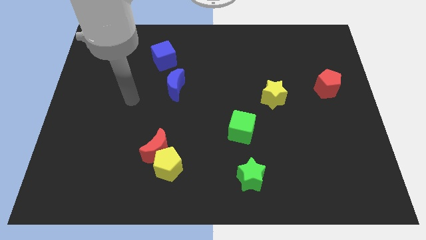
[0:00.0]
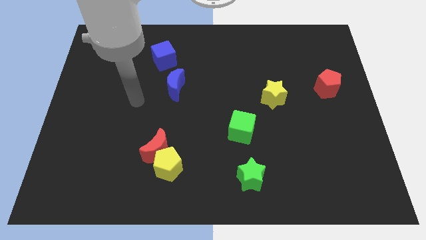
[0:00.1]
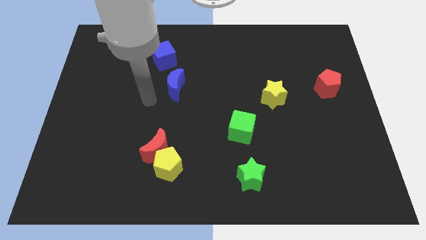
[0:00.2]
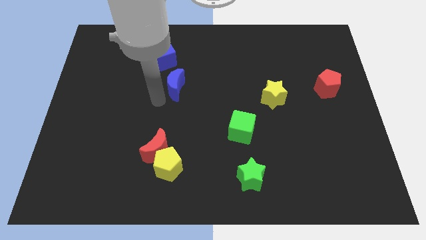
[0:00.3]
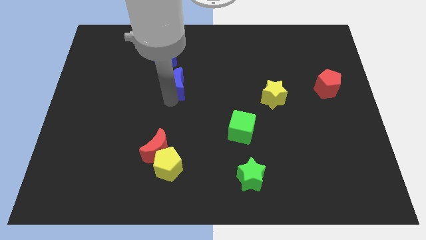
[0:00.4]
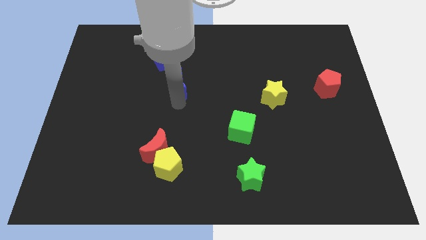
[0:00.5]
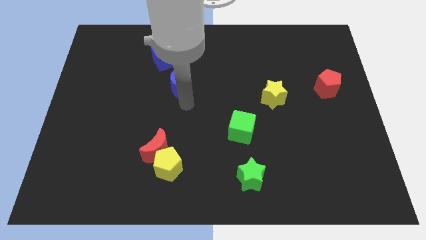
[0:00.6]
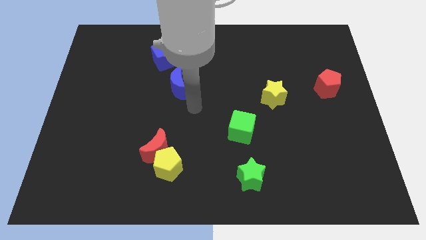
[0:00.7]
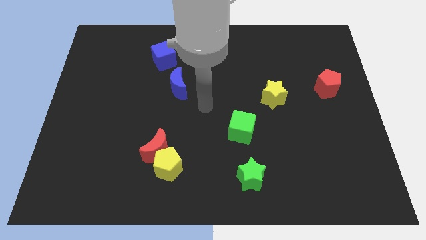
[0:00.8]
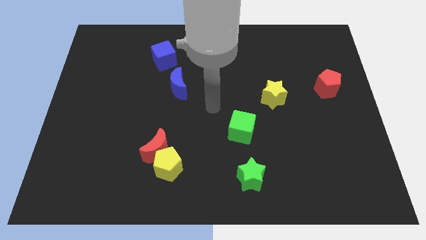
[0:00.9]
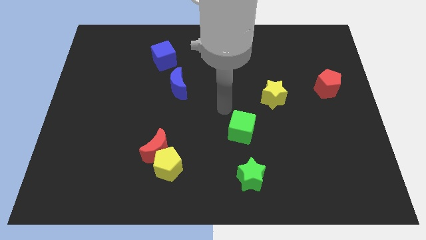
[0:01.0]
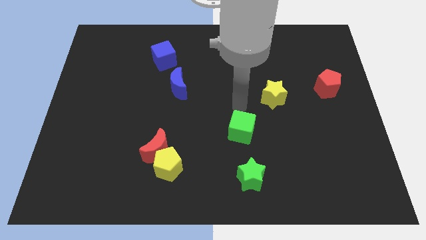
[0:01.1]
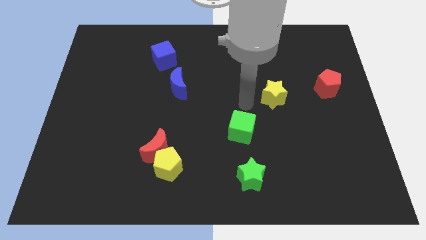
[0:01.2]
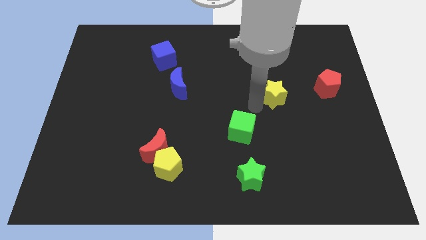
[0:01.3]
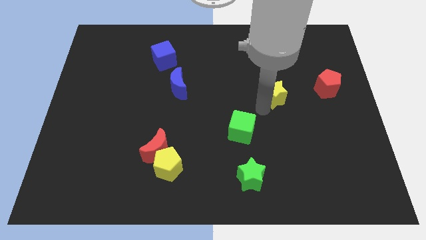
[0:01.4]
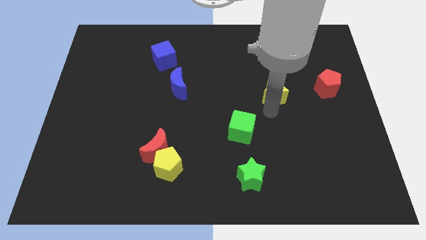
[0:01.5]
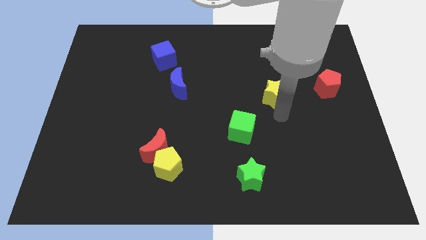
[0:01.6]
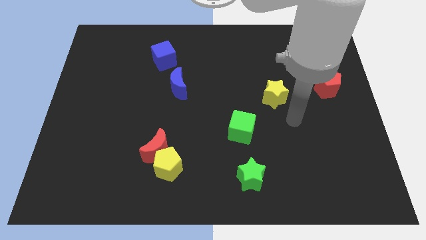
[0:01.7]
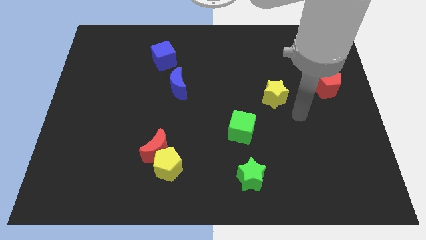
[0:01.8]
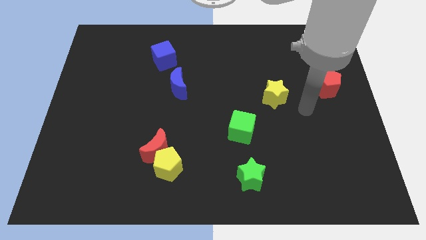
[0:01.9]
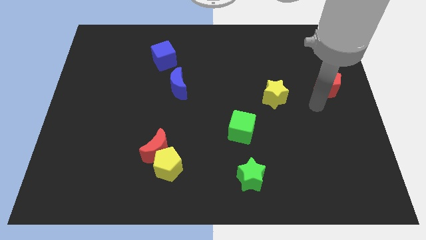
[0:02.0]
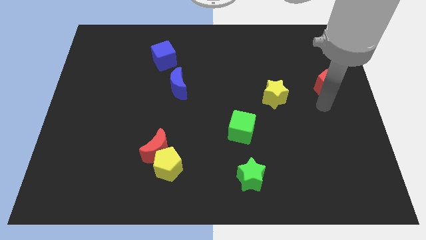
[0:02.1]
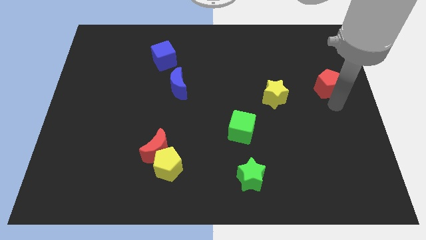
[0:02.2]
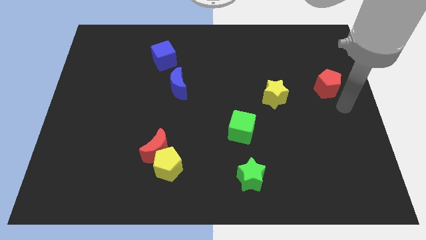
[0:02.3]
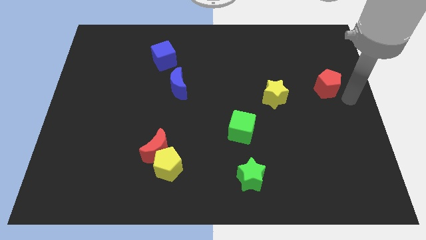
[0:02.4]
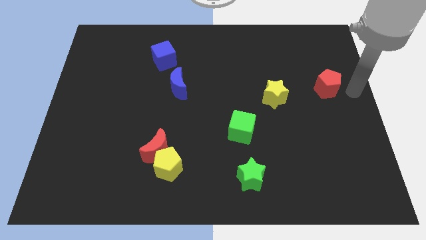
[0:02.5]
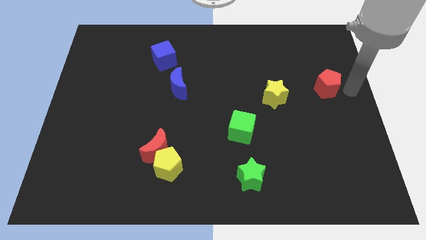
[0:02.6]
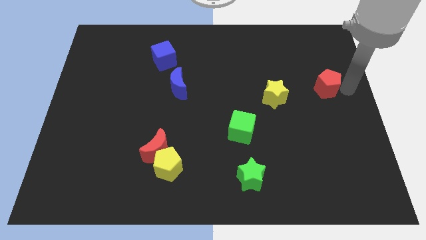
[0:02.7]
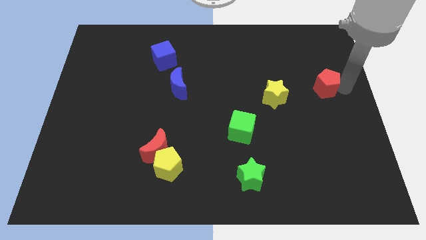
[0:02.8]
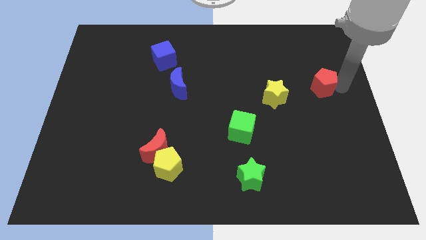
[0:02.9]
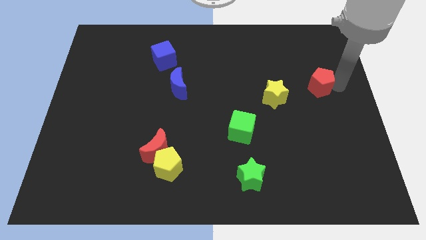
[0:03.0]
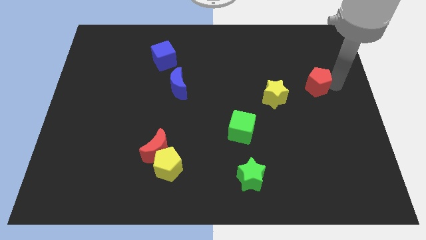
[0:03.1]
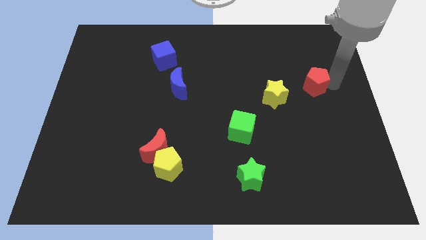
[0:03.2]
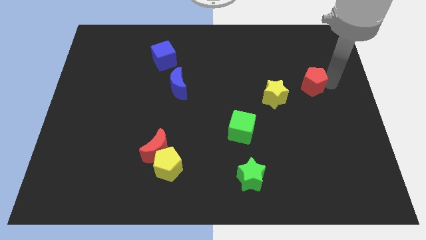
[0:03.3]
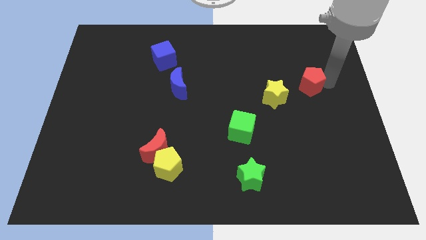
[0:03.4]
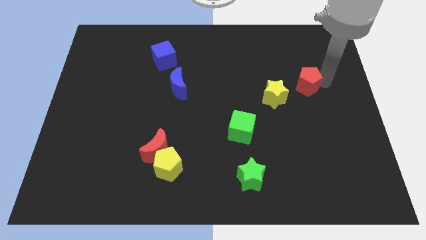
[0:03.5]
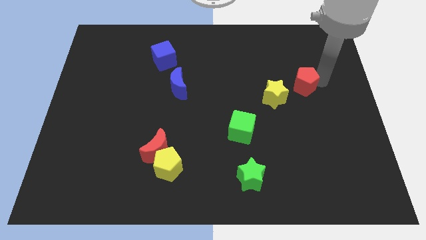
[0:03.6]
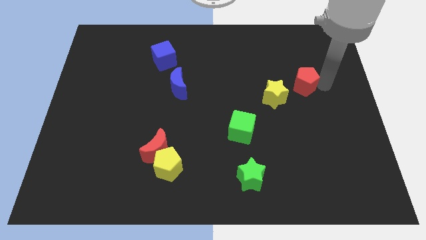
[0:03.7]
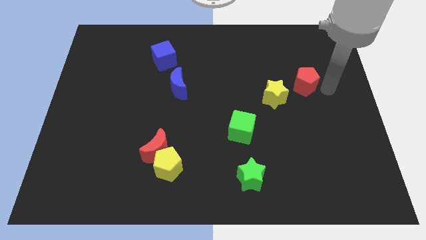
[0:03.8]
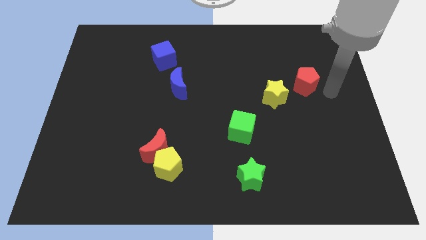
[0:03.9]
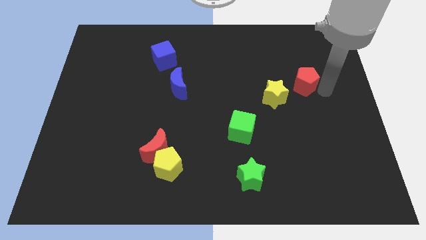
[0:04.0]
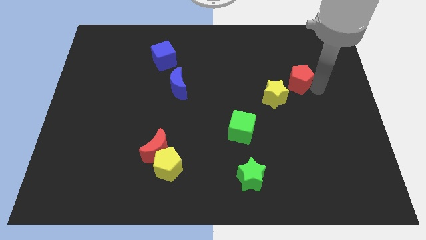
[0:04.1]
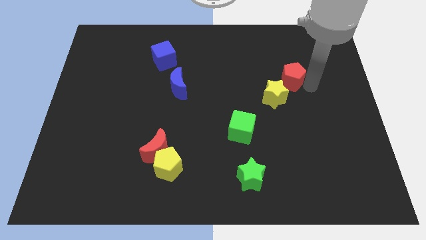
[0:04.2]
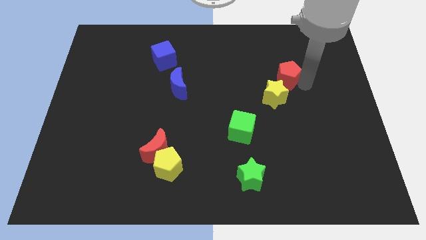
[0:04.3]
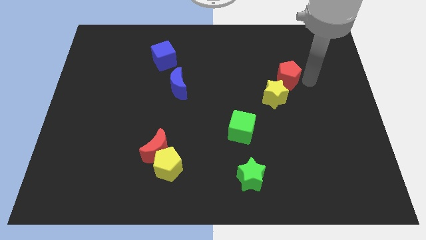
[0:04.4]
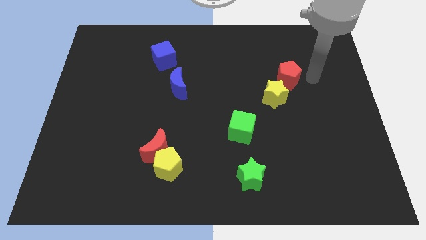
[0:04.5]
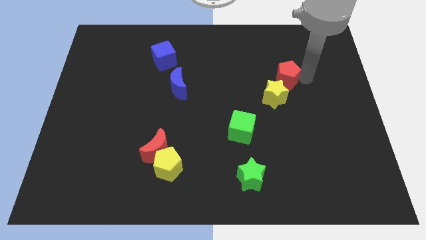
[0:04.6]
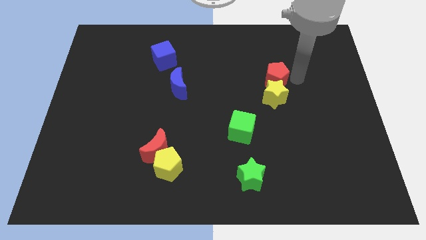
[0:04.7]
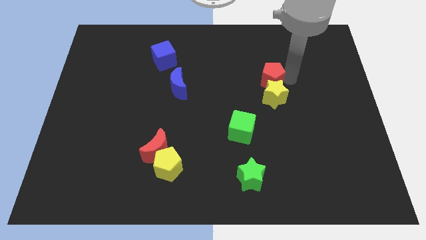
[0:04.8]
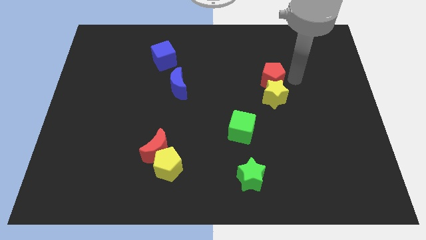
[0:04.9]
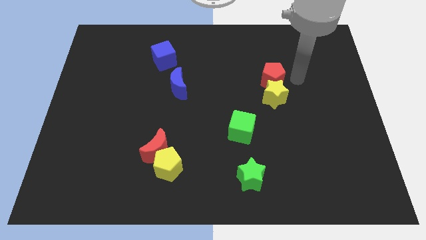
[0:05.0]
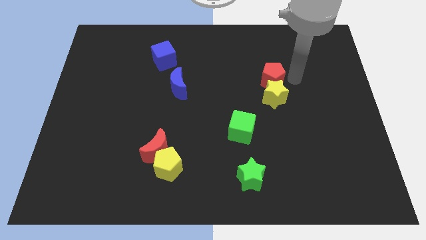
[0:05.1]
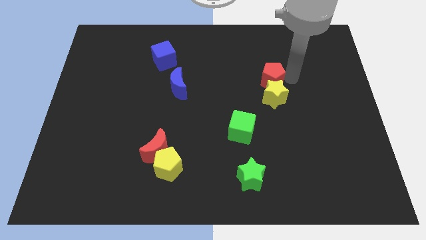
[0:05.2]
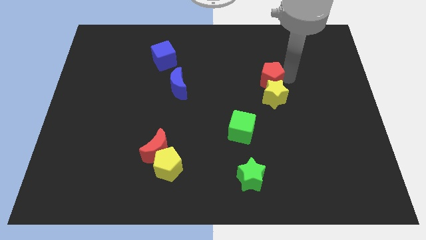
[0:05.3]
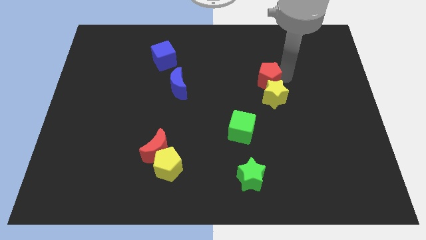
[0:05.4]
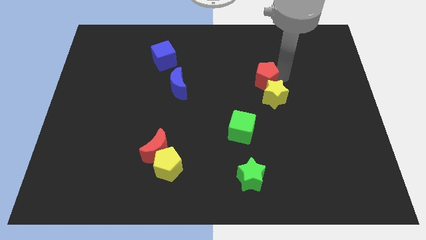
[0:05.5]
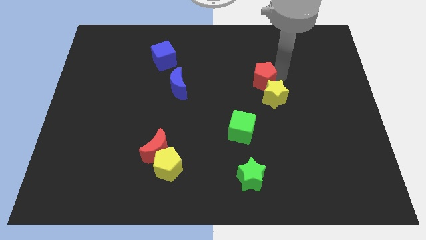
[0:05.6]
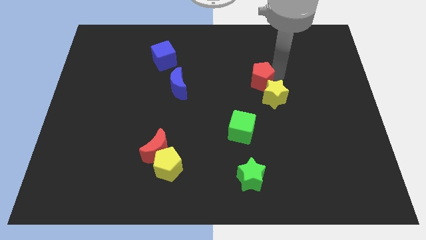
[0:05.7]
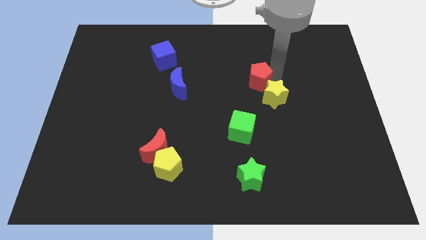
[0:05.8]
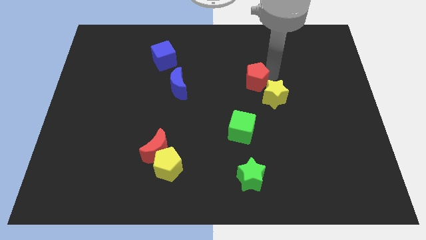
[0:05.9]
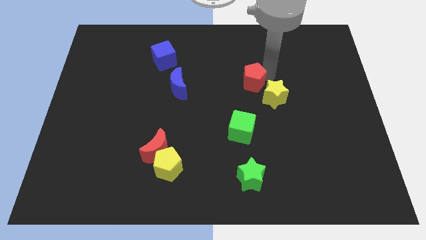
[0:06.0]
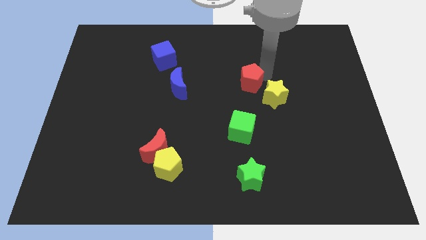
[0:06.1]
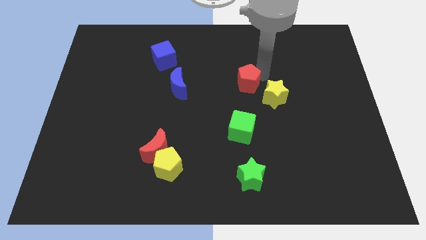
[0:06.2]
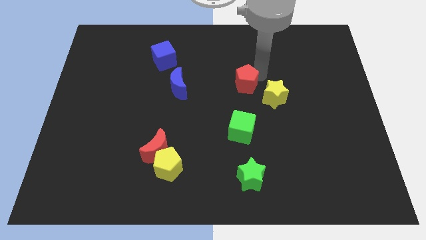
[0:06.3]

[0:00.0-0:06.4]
slide the red pentagon left

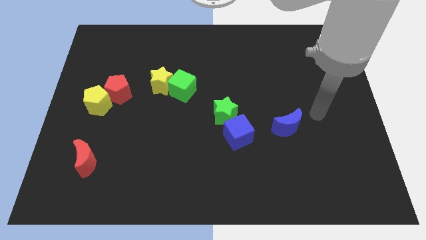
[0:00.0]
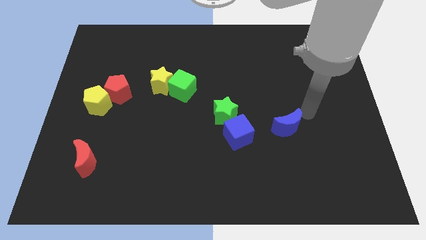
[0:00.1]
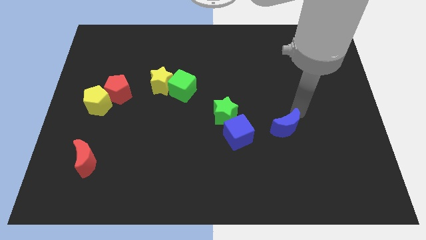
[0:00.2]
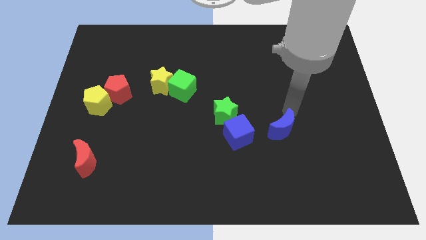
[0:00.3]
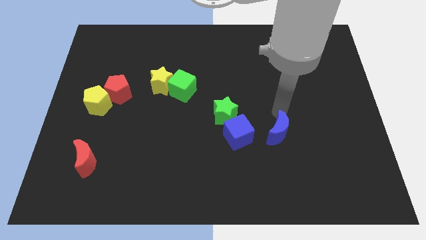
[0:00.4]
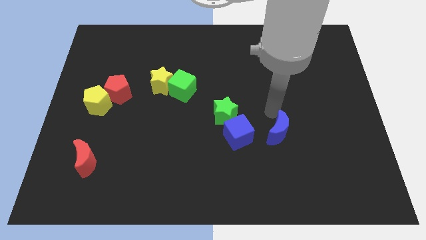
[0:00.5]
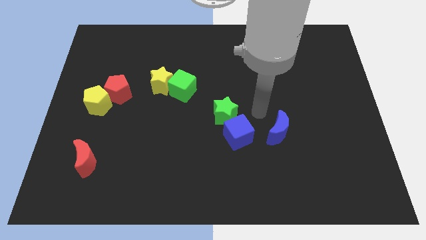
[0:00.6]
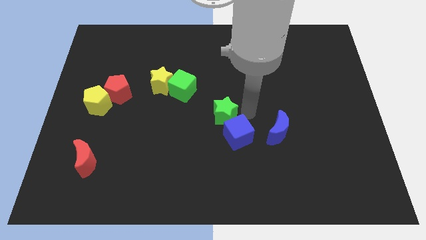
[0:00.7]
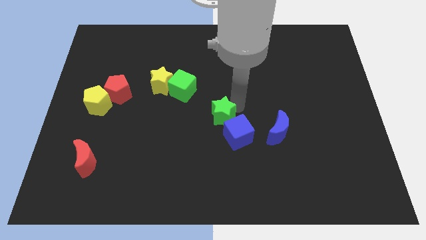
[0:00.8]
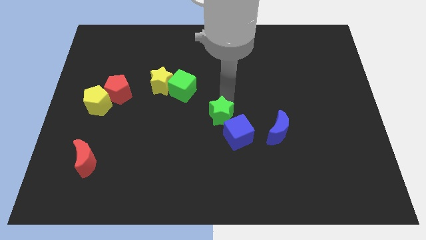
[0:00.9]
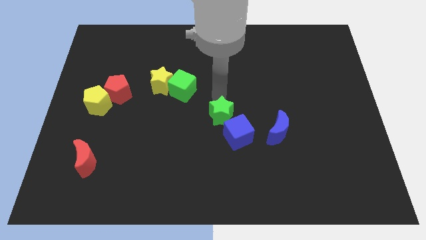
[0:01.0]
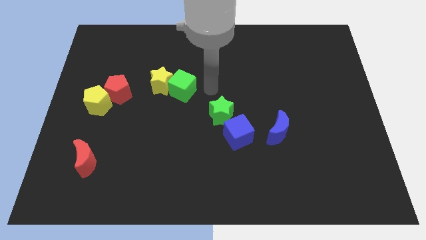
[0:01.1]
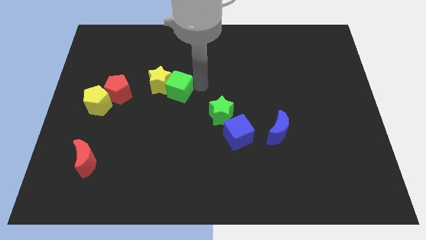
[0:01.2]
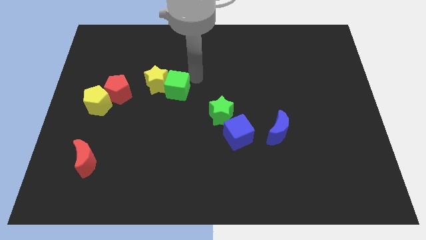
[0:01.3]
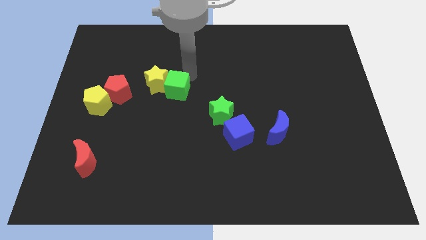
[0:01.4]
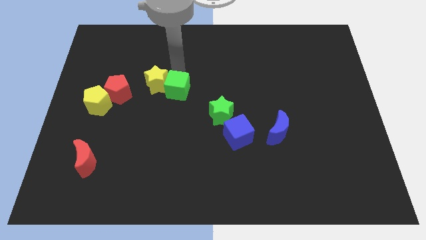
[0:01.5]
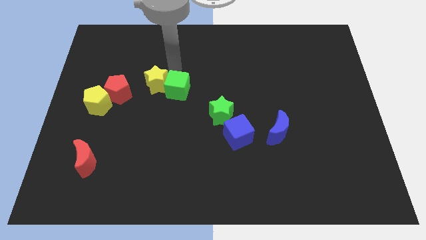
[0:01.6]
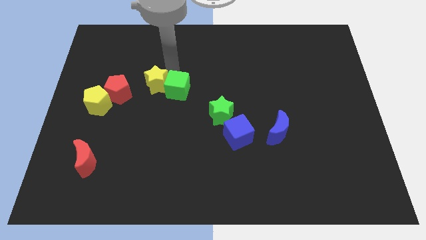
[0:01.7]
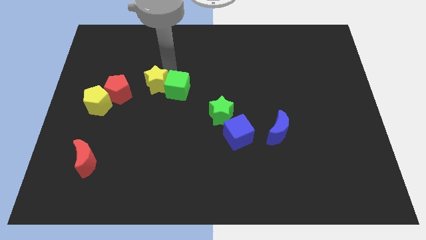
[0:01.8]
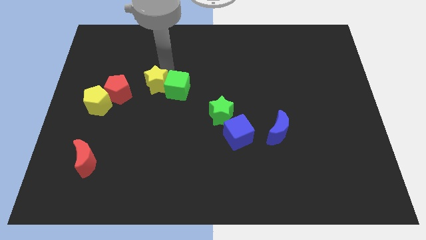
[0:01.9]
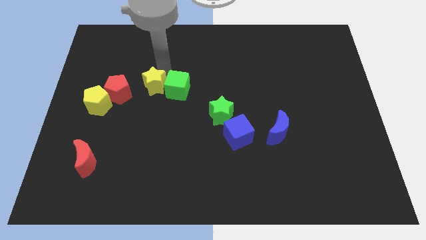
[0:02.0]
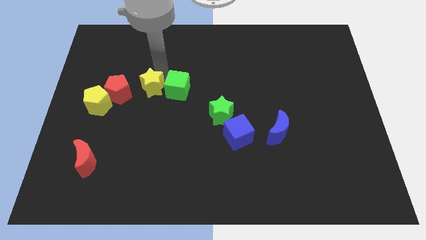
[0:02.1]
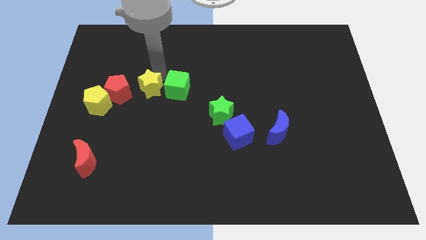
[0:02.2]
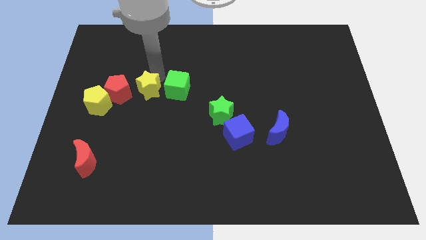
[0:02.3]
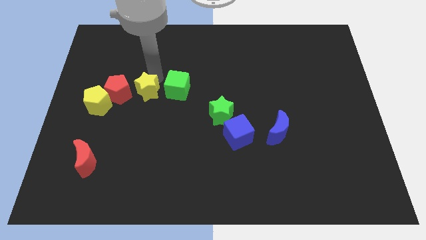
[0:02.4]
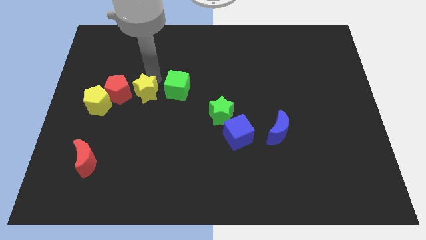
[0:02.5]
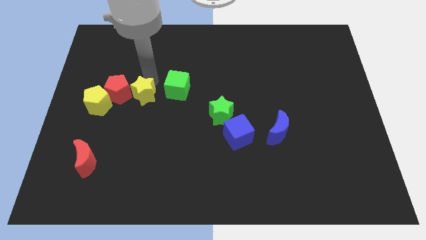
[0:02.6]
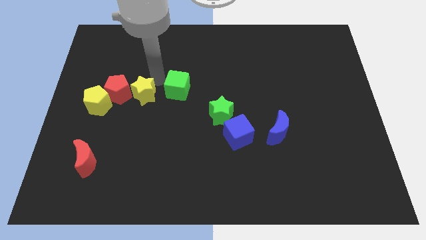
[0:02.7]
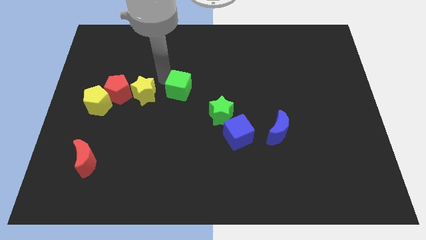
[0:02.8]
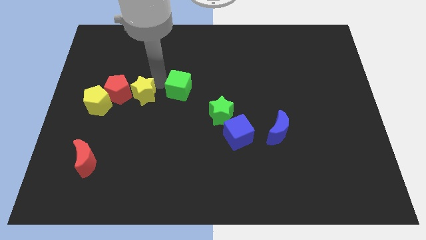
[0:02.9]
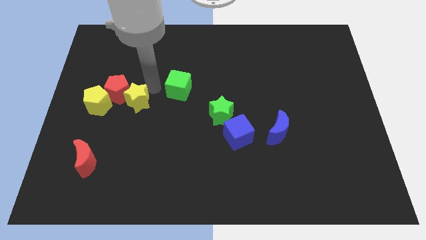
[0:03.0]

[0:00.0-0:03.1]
slide the yellow star a little downwards and to the left
